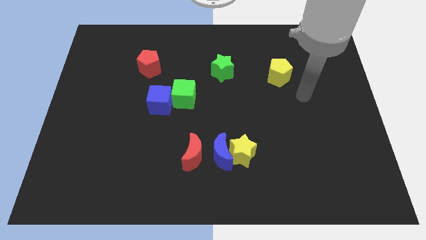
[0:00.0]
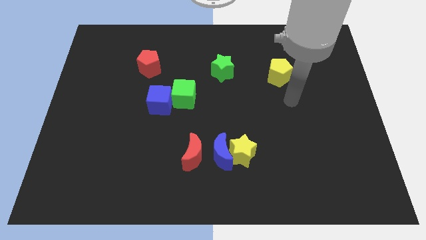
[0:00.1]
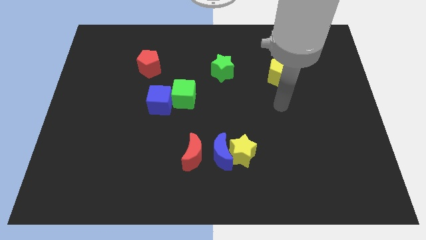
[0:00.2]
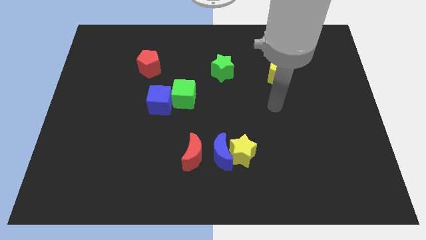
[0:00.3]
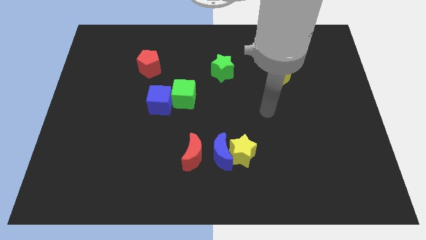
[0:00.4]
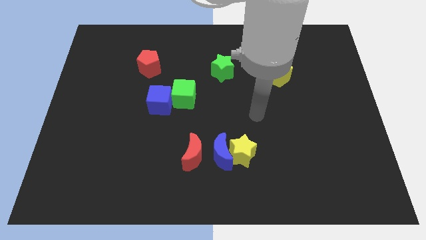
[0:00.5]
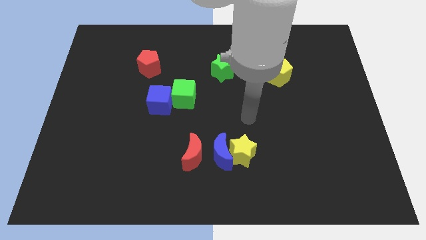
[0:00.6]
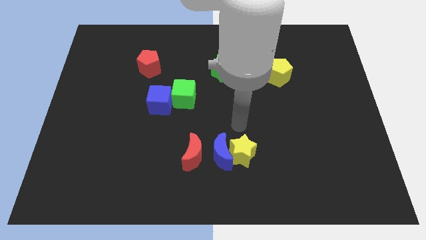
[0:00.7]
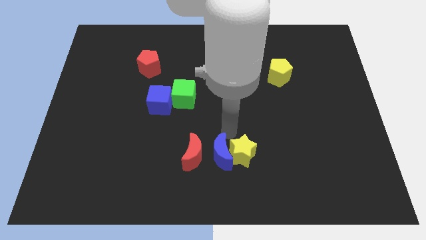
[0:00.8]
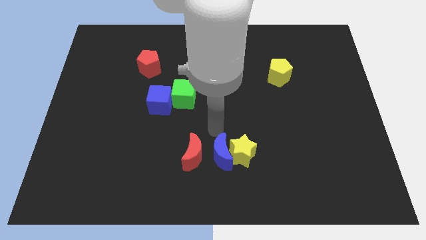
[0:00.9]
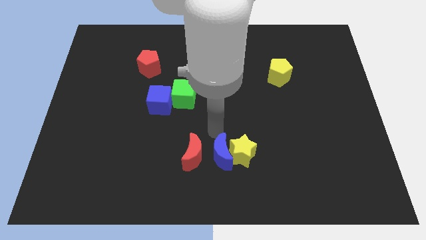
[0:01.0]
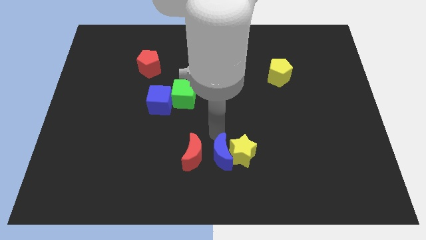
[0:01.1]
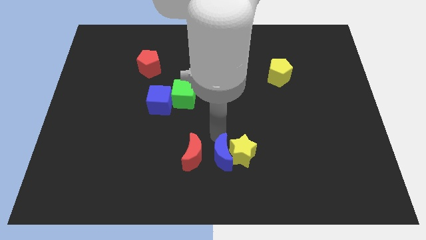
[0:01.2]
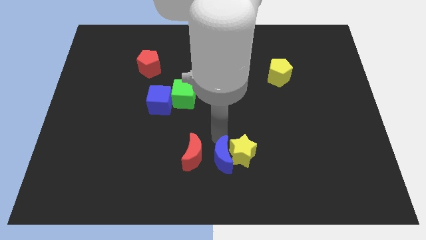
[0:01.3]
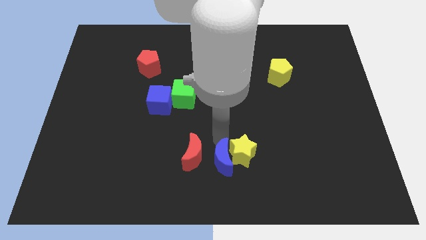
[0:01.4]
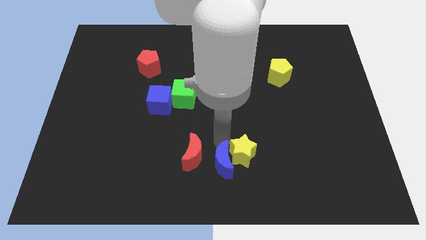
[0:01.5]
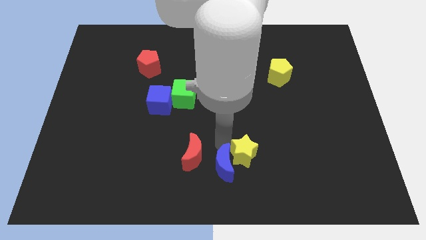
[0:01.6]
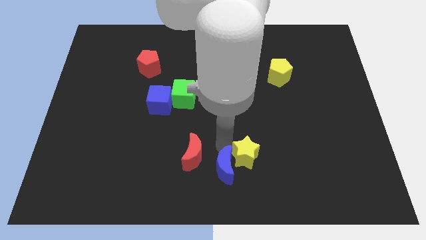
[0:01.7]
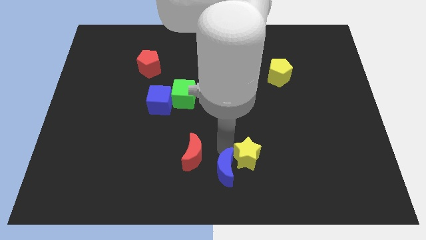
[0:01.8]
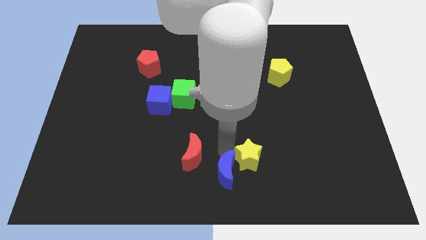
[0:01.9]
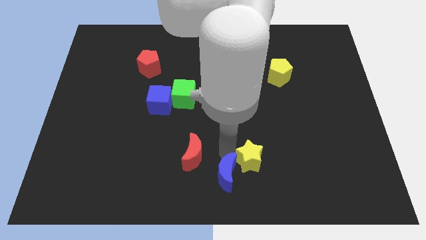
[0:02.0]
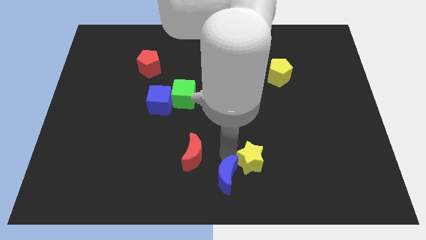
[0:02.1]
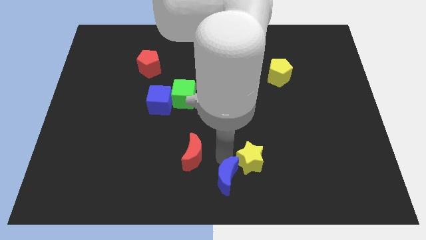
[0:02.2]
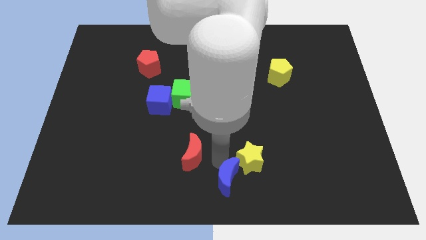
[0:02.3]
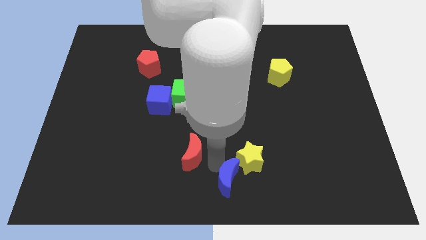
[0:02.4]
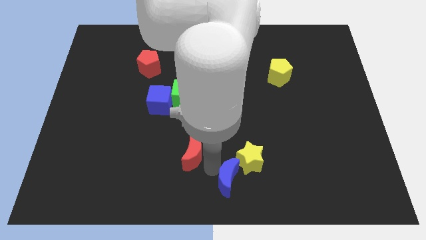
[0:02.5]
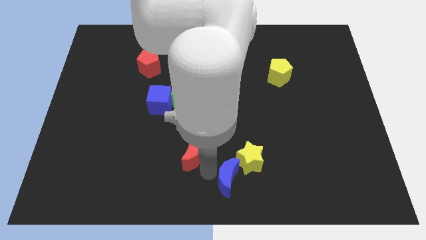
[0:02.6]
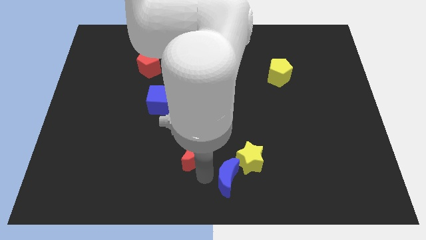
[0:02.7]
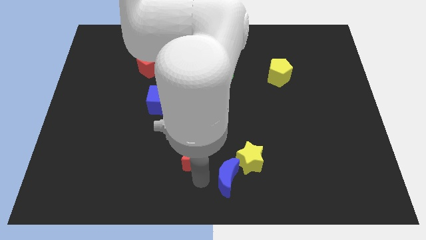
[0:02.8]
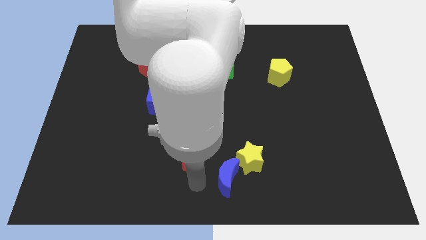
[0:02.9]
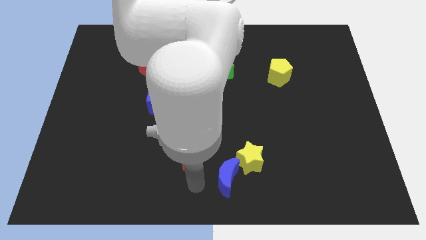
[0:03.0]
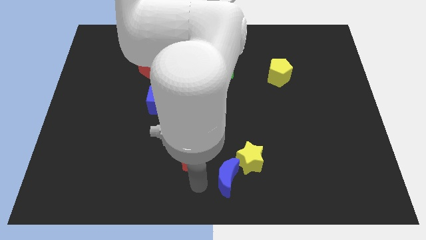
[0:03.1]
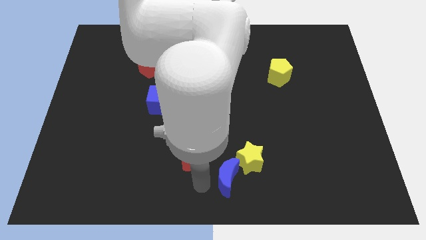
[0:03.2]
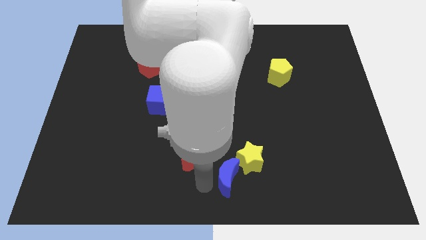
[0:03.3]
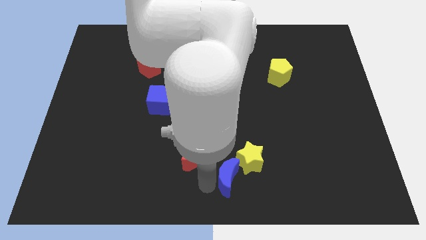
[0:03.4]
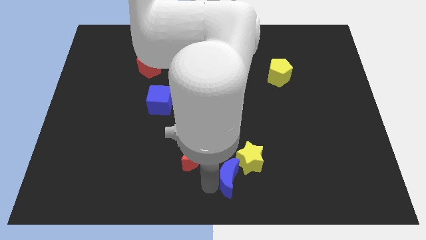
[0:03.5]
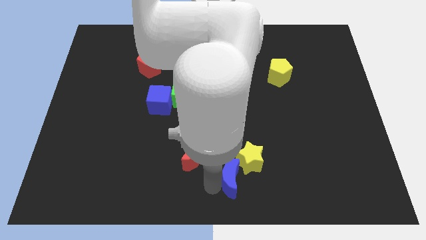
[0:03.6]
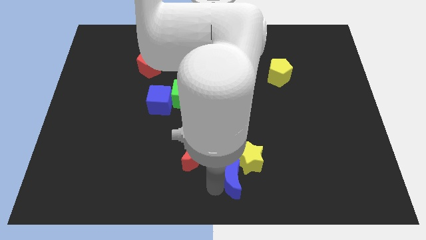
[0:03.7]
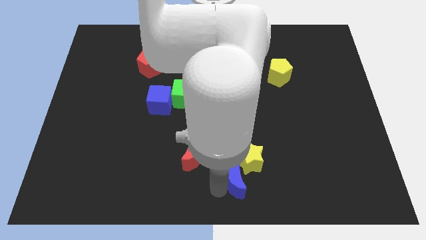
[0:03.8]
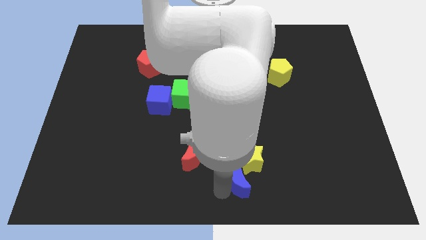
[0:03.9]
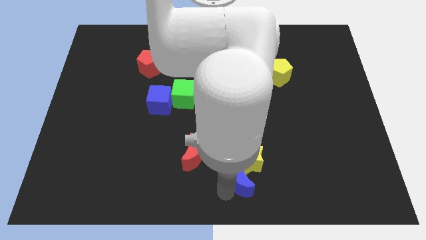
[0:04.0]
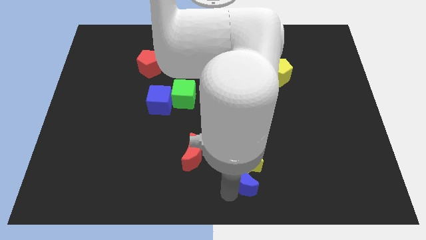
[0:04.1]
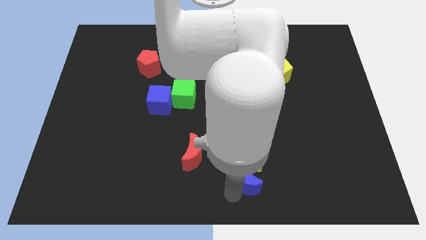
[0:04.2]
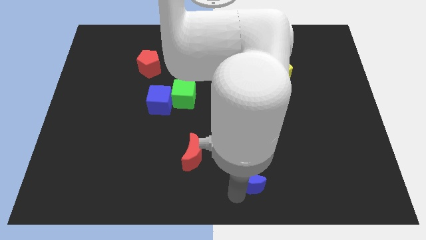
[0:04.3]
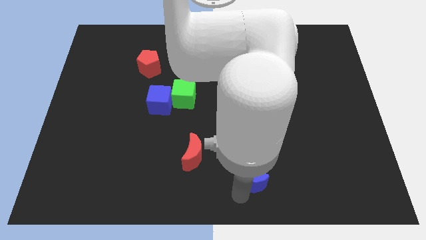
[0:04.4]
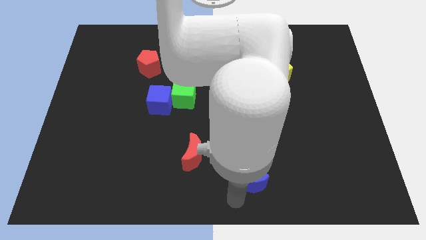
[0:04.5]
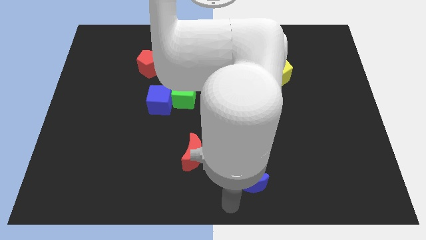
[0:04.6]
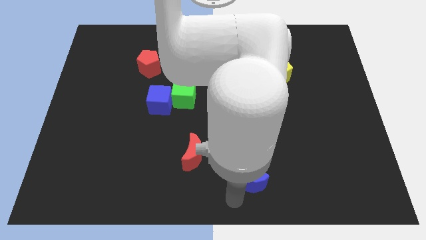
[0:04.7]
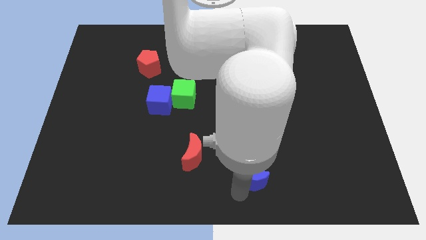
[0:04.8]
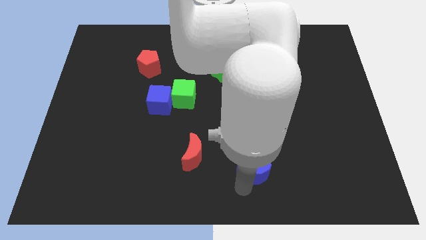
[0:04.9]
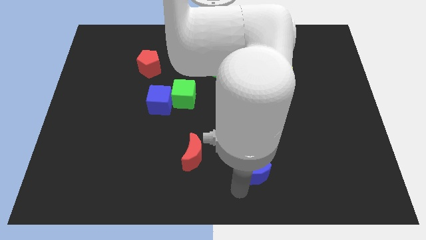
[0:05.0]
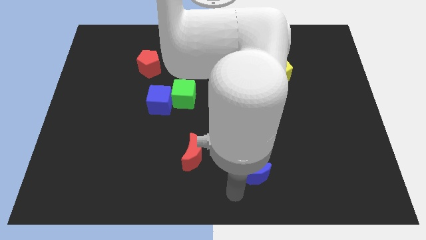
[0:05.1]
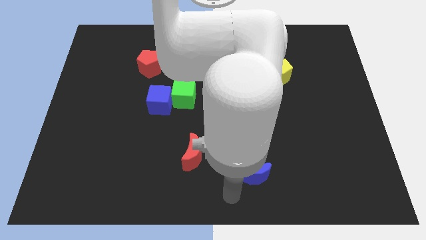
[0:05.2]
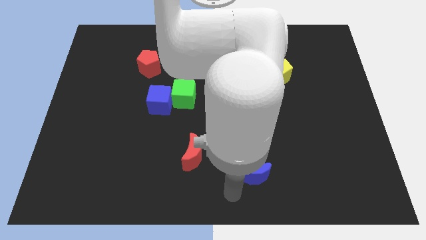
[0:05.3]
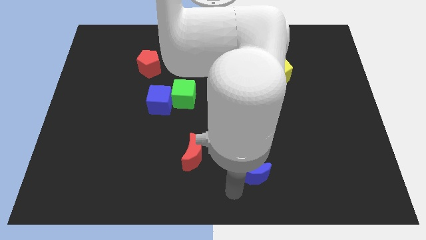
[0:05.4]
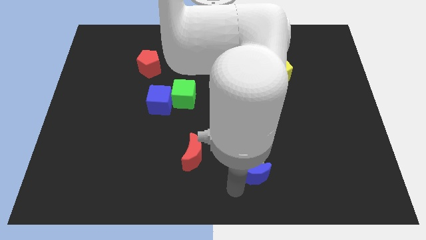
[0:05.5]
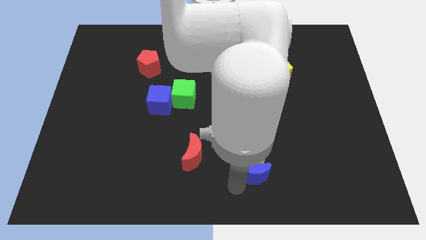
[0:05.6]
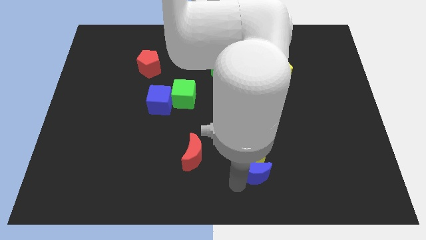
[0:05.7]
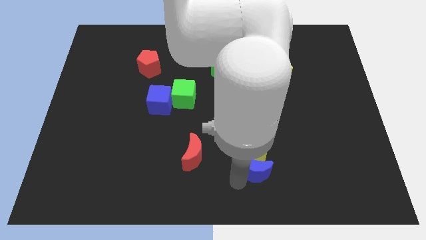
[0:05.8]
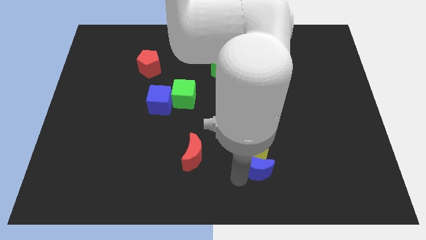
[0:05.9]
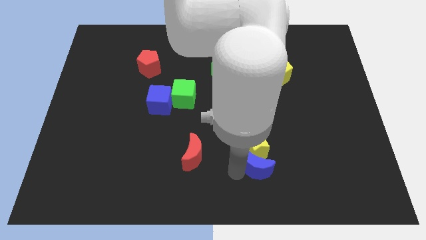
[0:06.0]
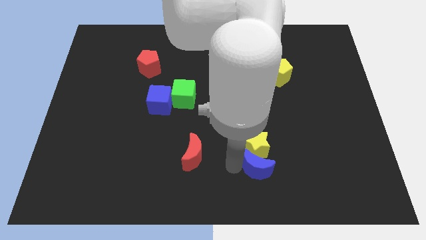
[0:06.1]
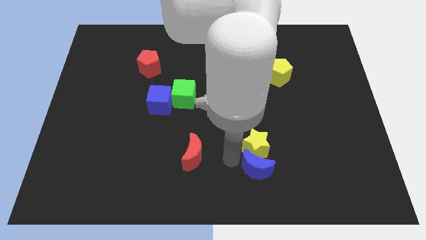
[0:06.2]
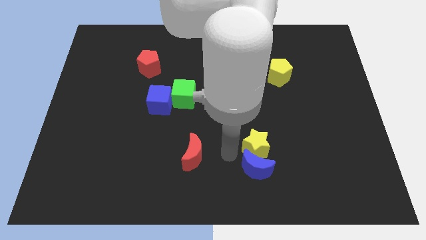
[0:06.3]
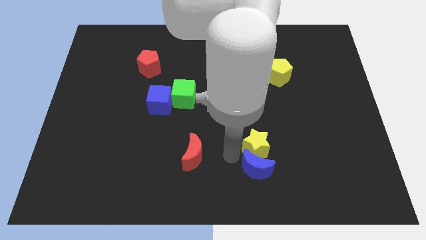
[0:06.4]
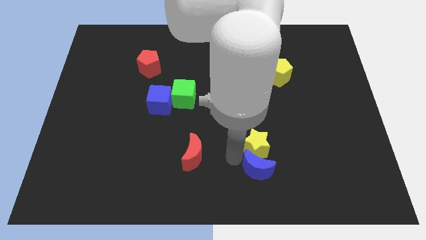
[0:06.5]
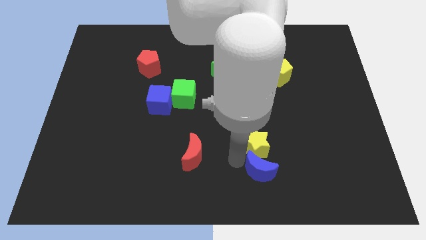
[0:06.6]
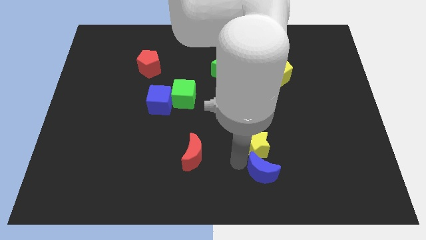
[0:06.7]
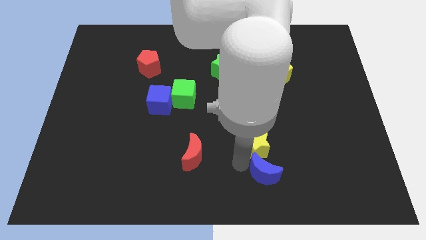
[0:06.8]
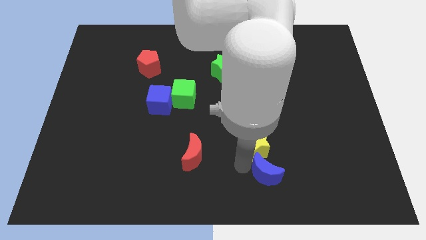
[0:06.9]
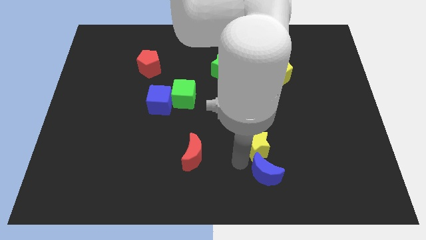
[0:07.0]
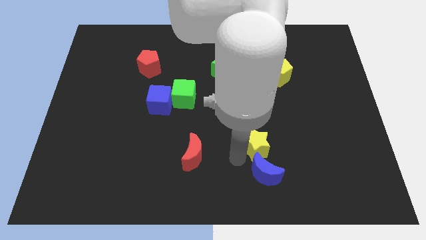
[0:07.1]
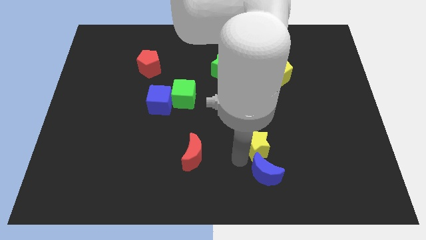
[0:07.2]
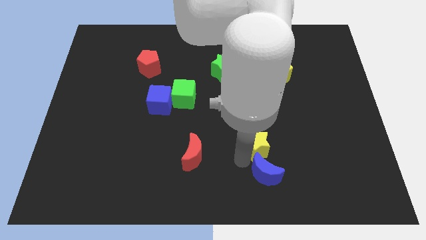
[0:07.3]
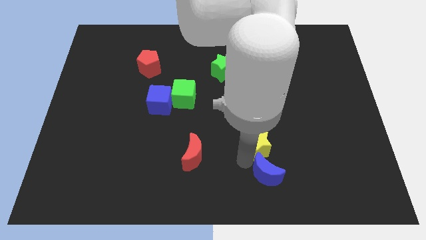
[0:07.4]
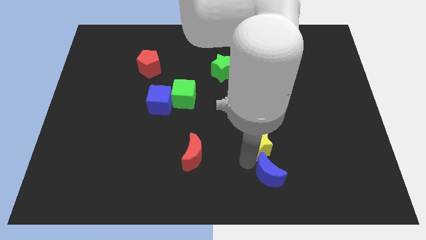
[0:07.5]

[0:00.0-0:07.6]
move the blue moon away from the yellow star and red moon

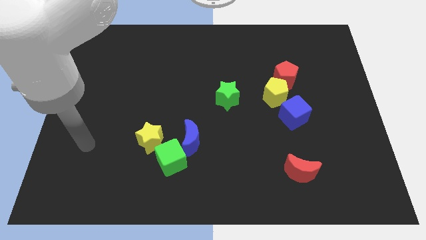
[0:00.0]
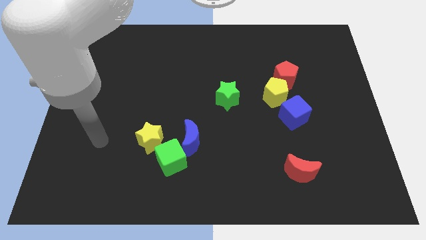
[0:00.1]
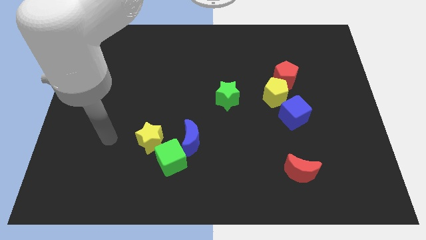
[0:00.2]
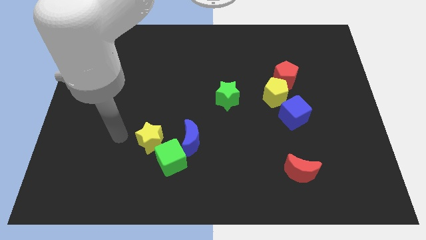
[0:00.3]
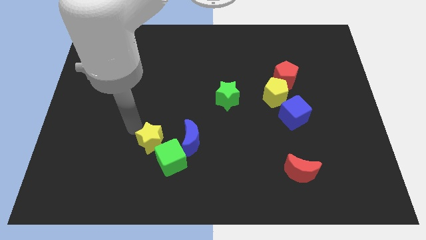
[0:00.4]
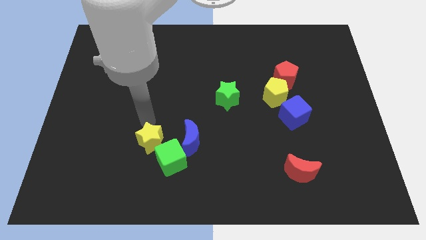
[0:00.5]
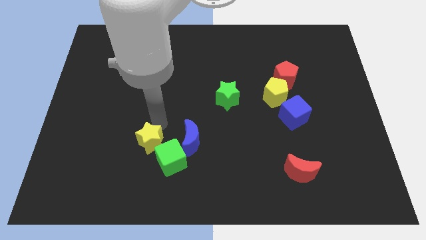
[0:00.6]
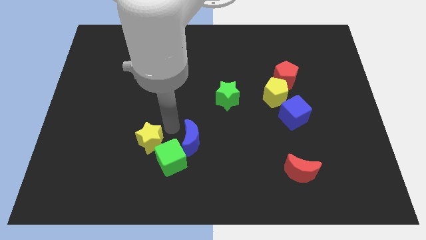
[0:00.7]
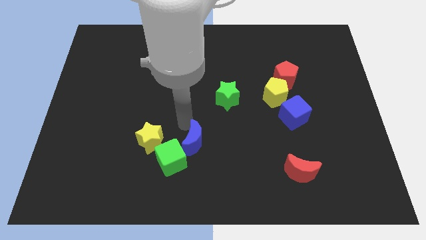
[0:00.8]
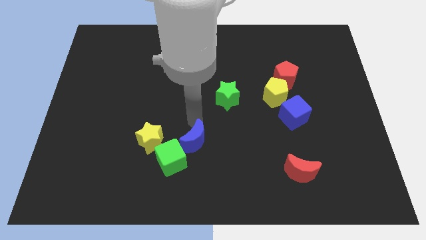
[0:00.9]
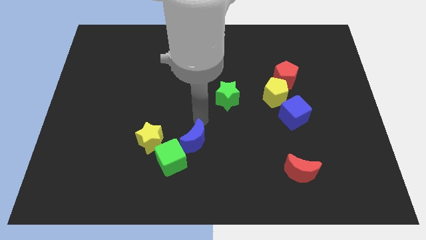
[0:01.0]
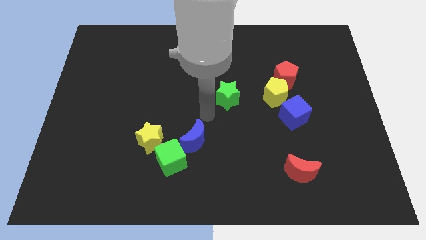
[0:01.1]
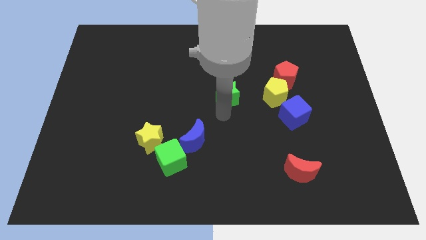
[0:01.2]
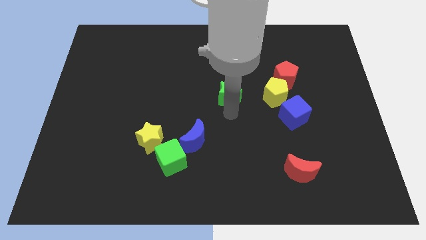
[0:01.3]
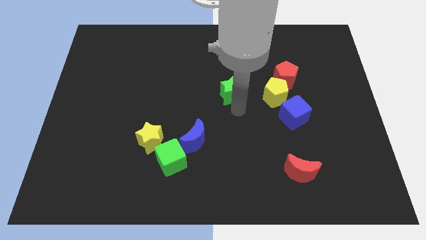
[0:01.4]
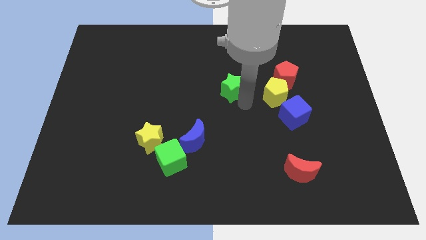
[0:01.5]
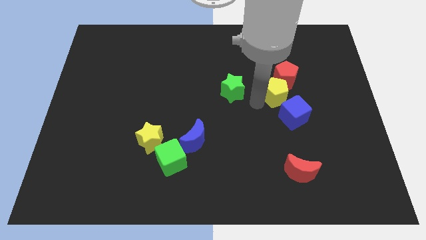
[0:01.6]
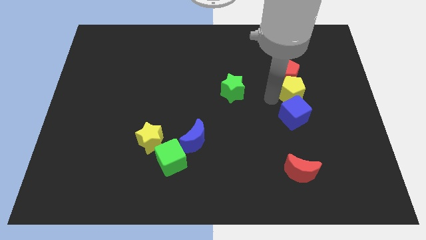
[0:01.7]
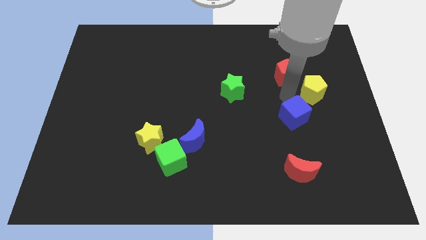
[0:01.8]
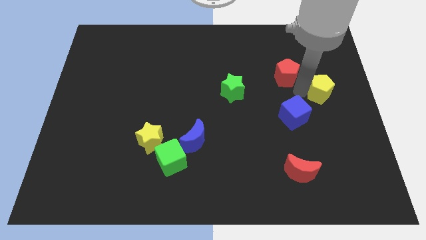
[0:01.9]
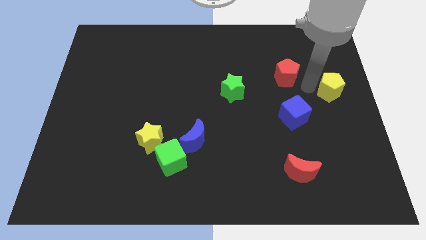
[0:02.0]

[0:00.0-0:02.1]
move the red pentagon away from the yellow pentagon
